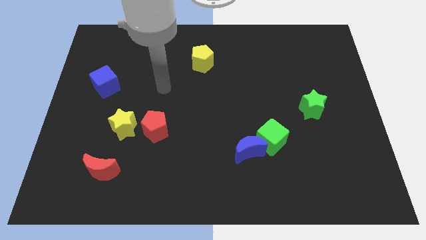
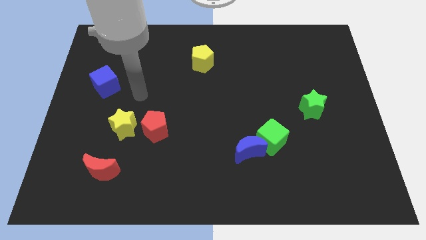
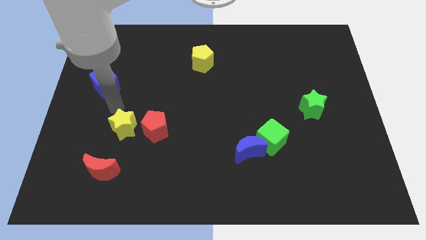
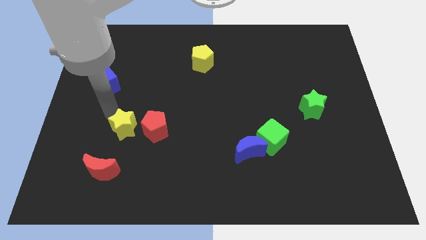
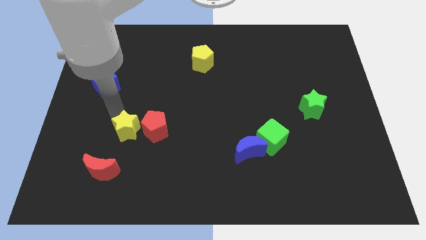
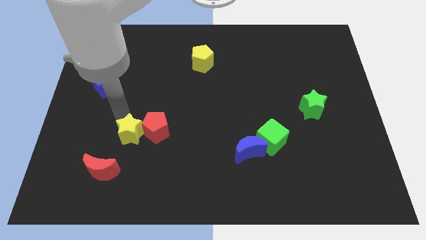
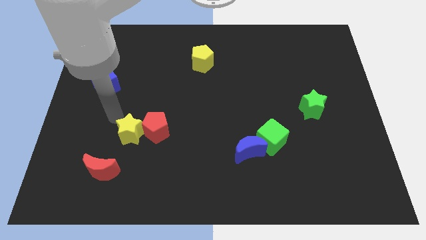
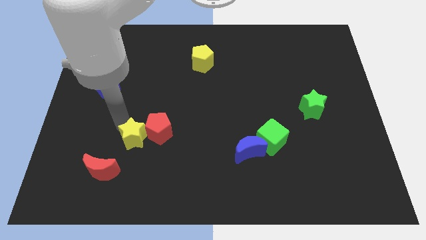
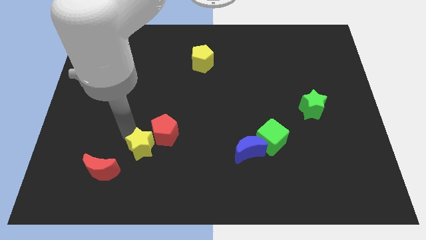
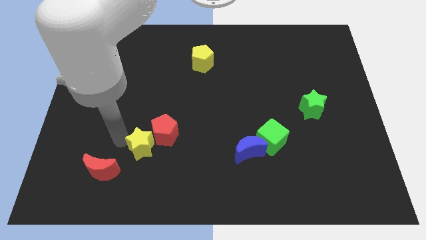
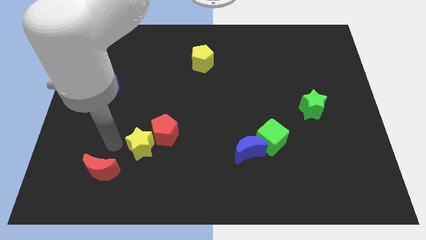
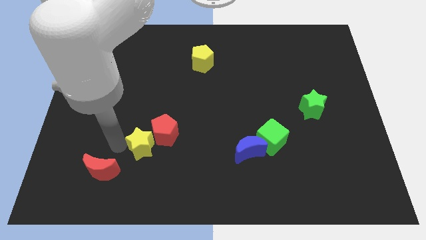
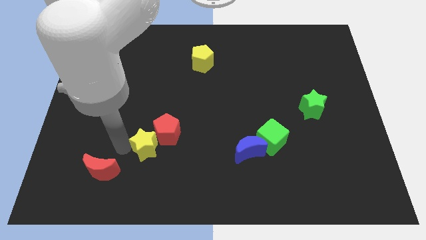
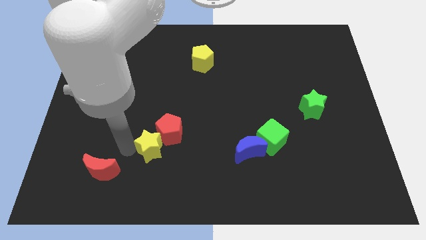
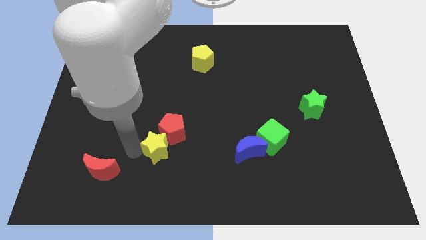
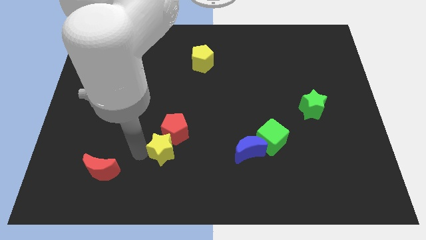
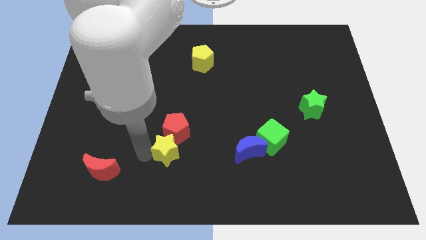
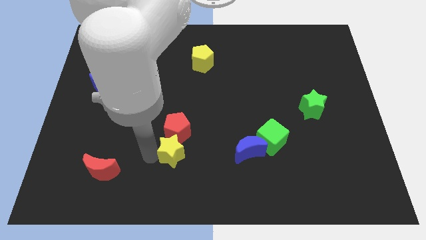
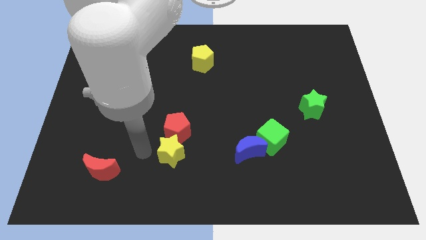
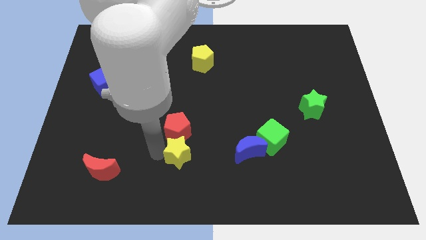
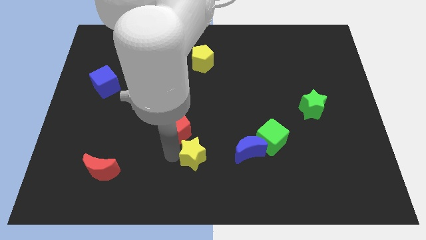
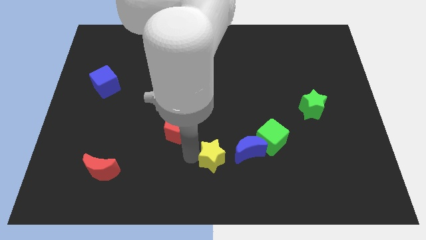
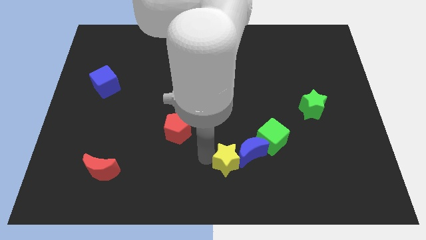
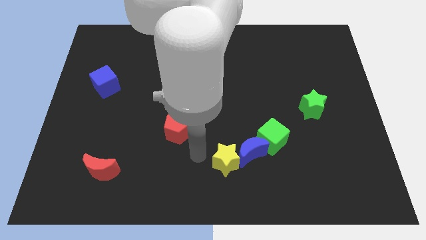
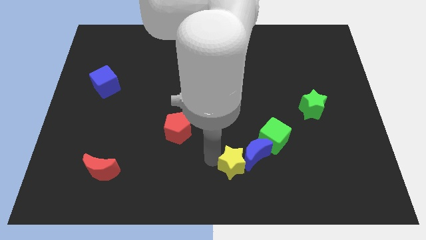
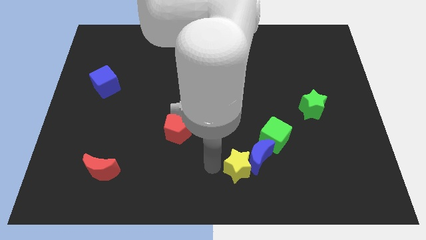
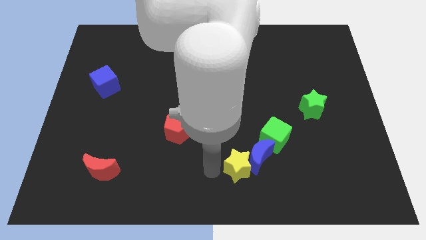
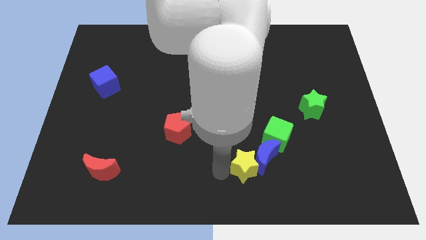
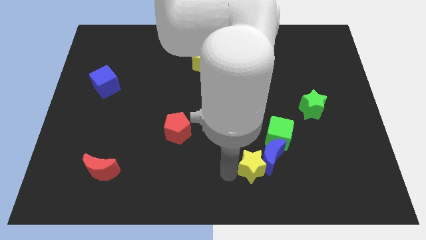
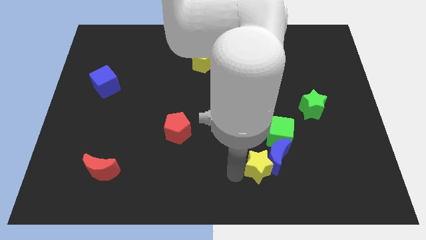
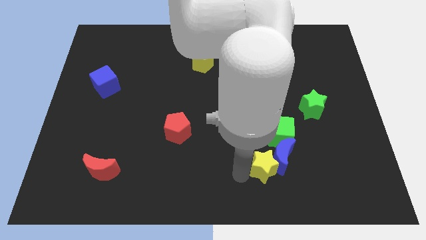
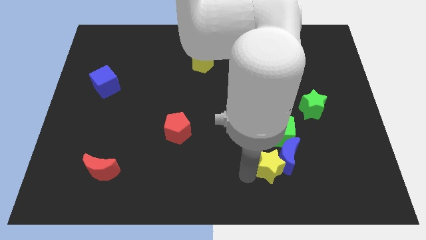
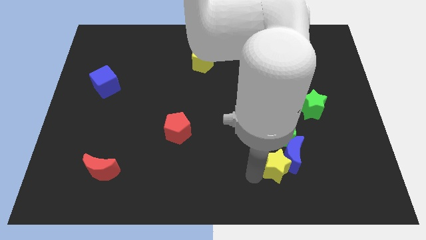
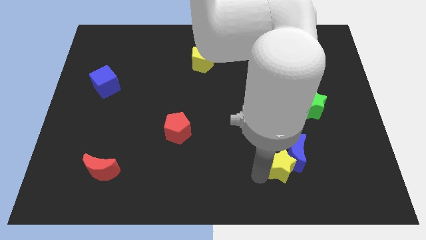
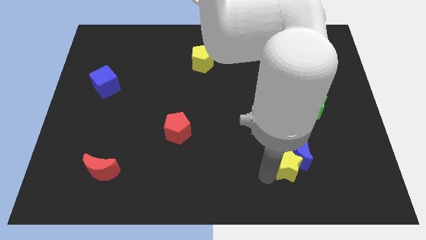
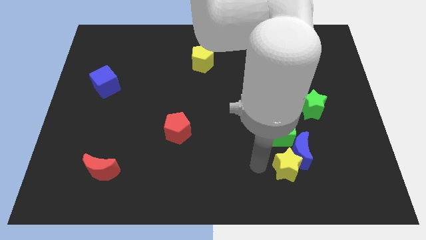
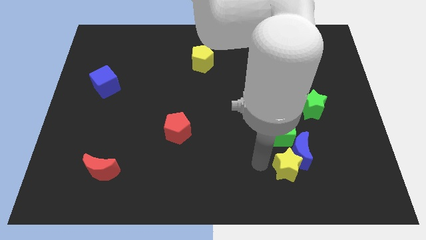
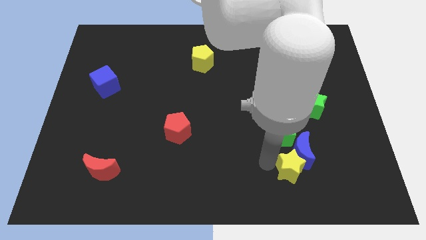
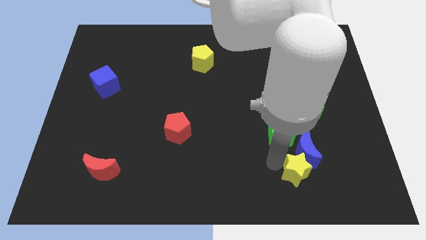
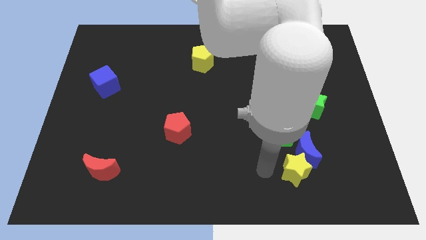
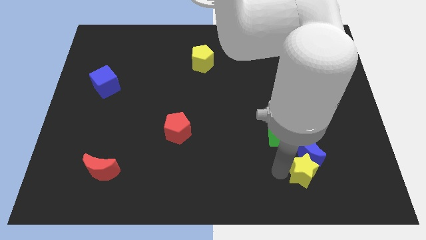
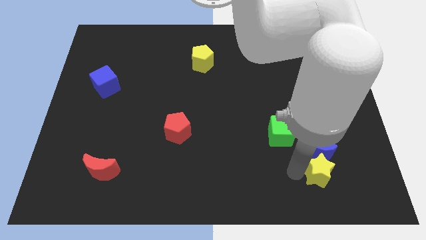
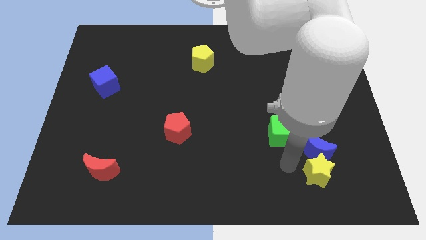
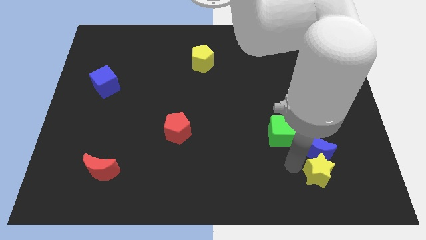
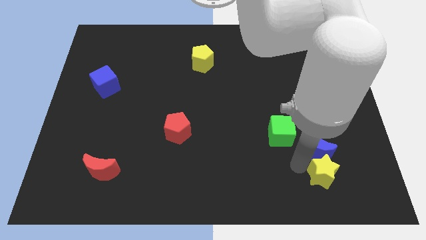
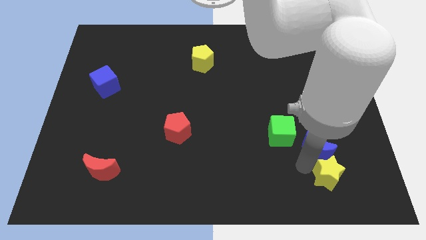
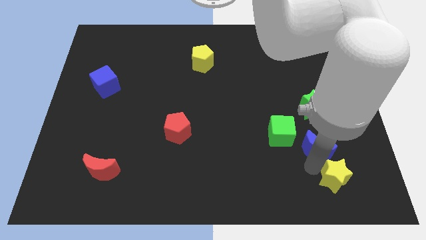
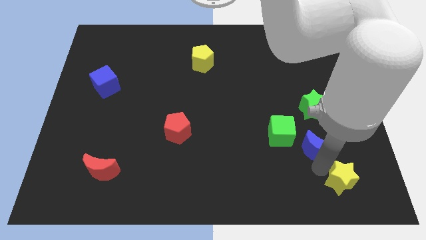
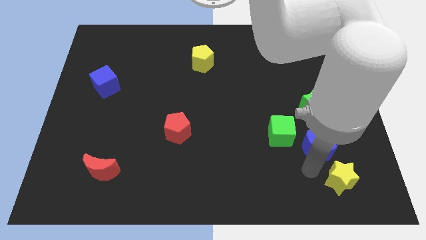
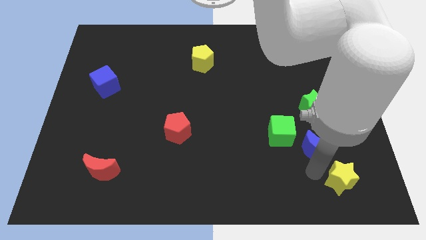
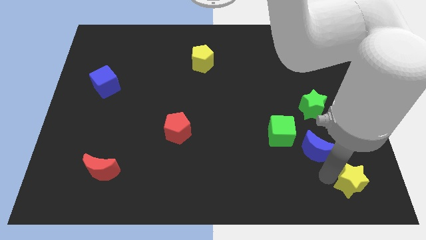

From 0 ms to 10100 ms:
push the yellow star to the lower right corner

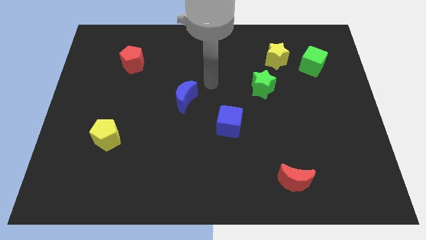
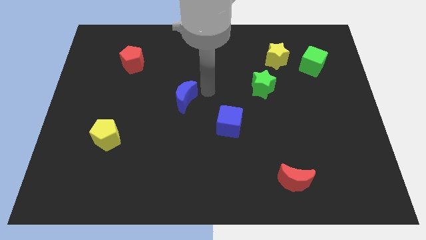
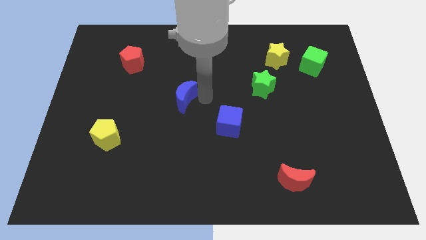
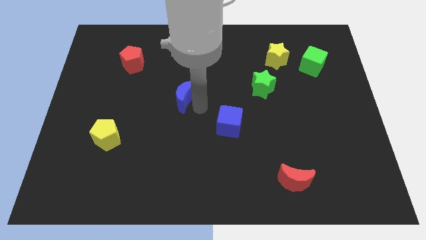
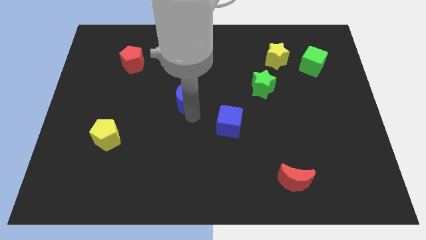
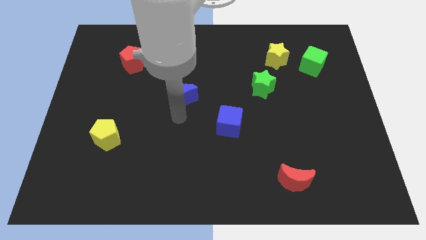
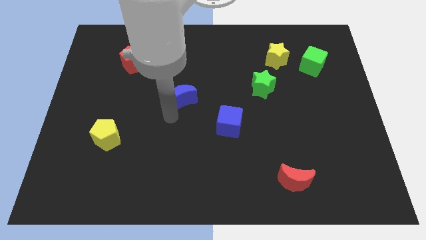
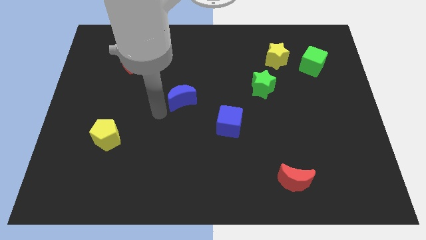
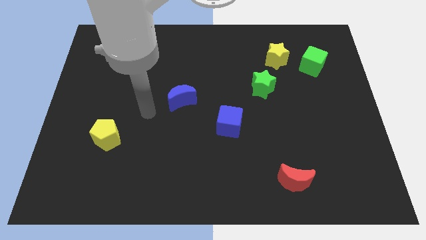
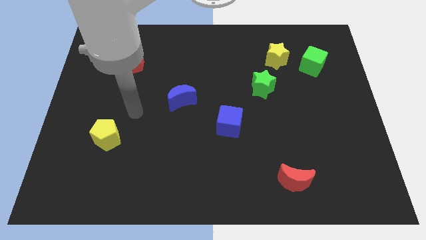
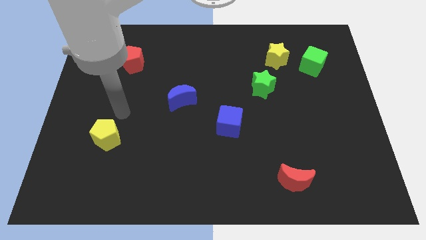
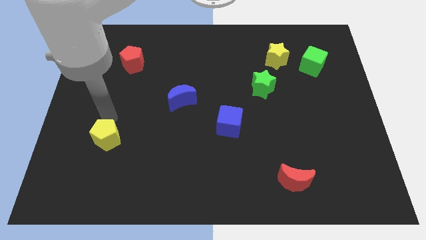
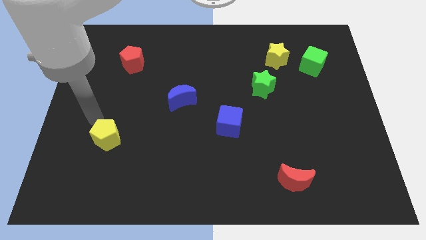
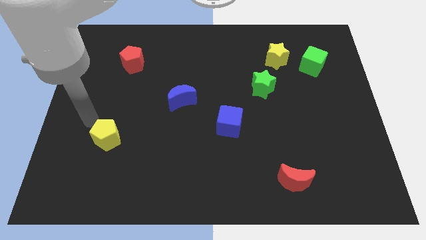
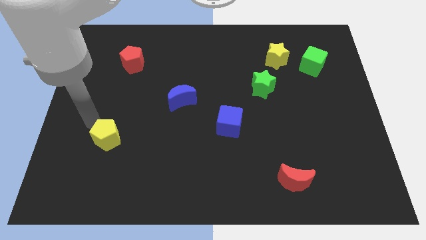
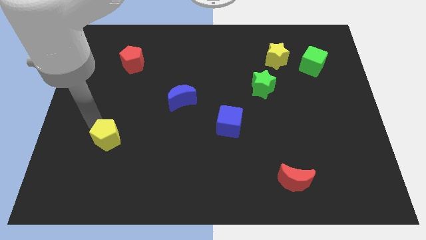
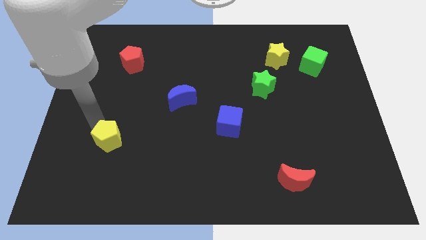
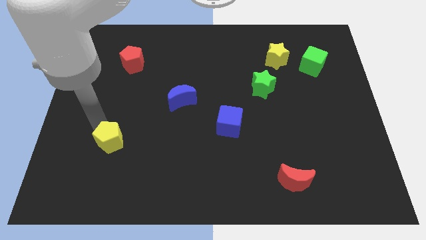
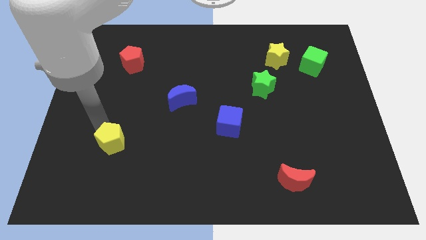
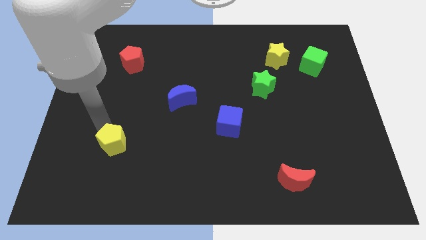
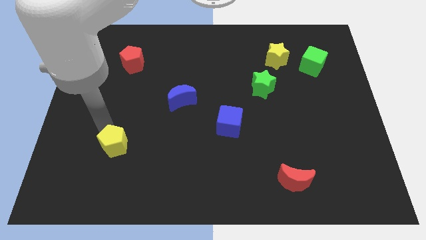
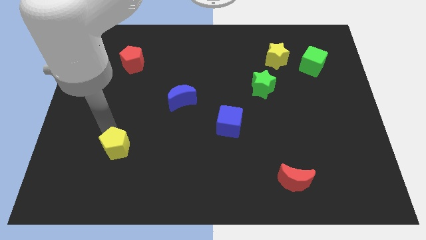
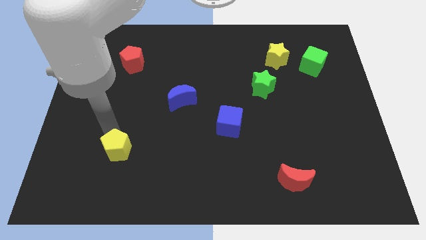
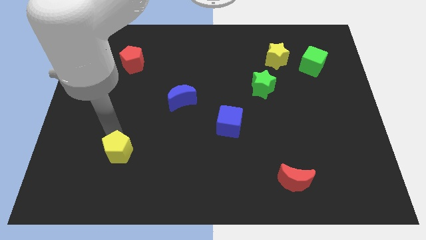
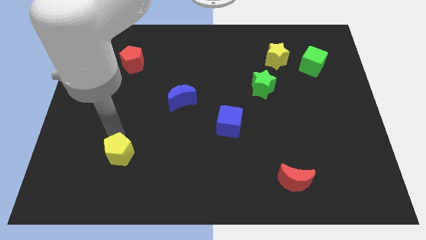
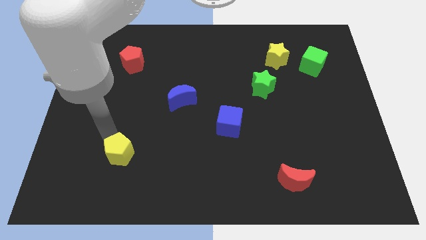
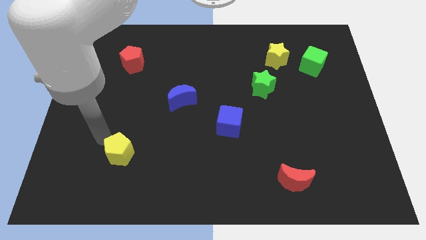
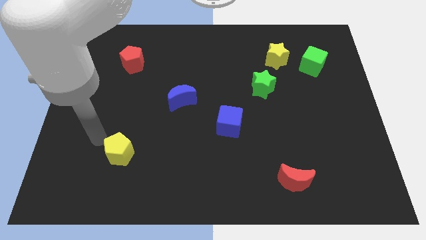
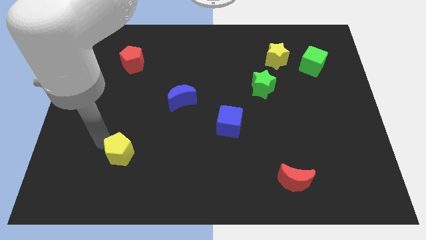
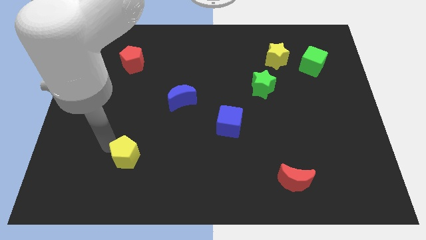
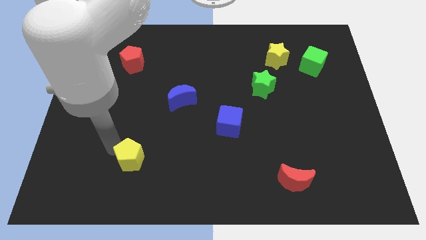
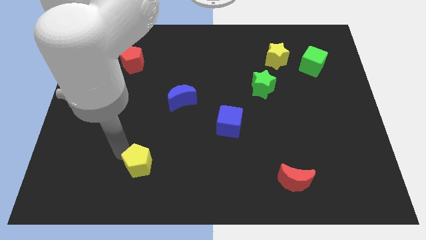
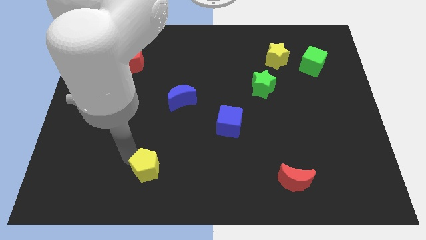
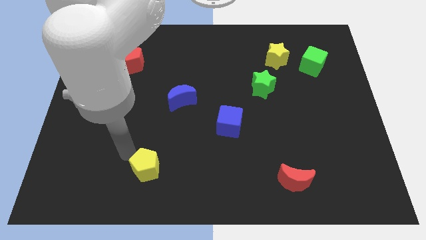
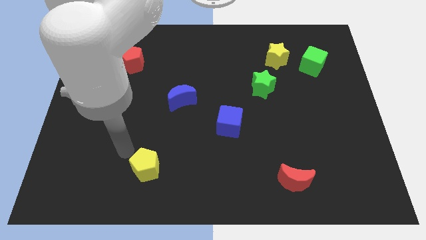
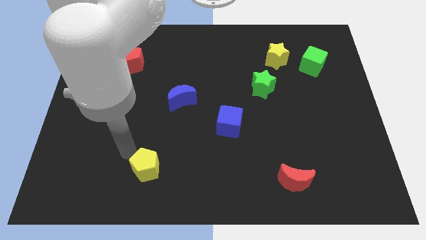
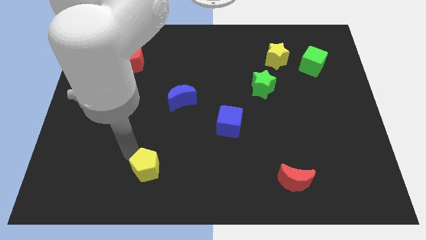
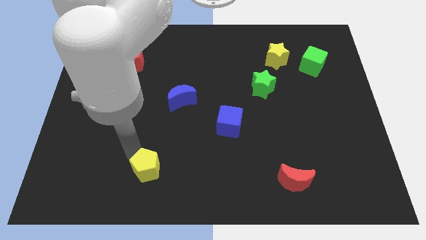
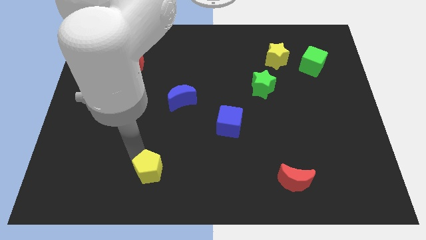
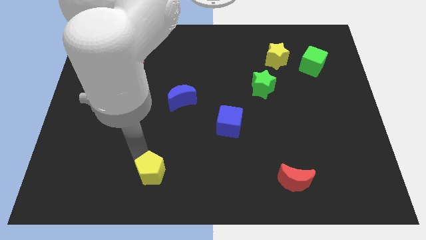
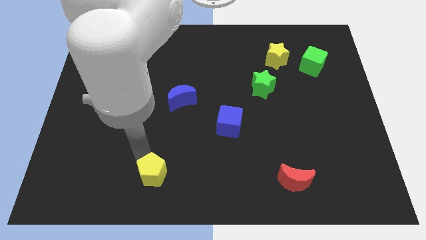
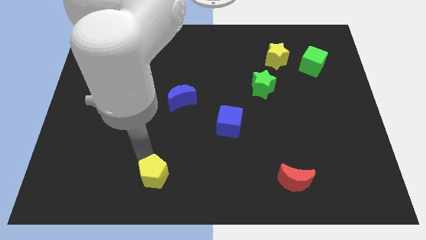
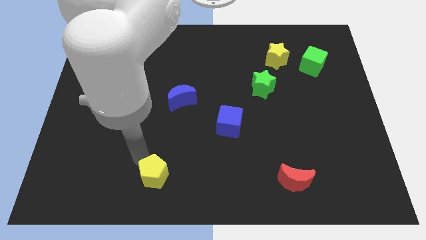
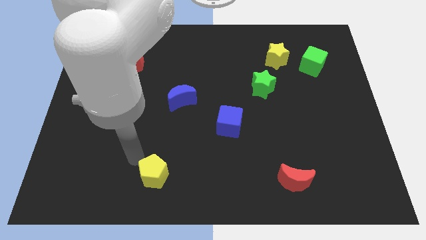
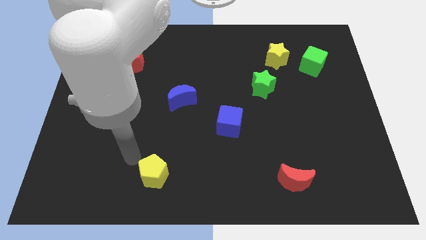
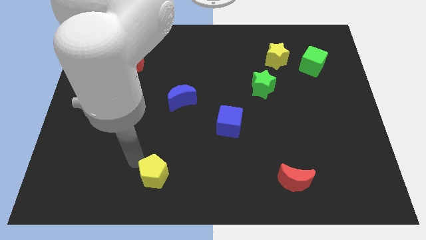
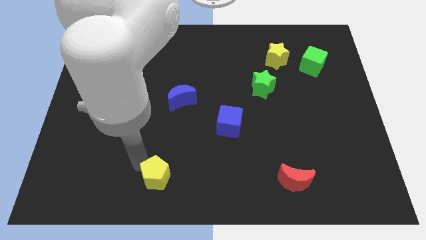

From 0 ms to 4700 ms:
put the yellow pentagon to the bottom
